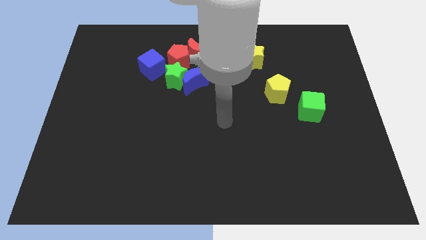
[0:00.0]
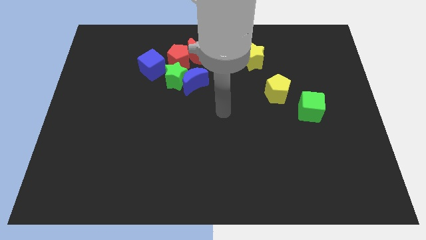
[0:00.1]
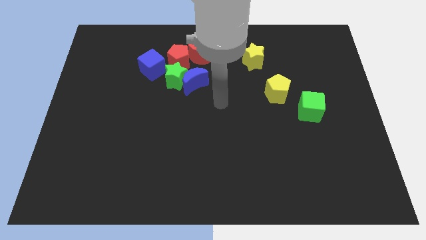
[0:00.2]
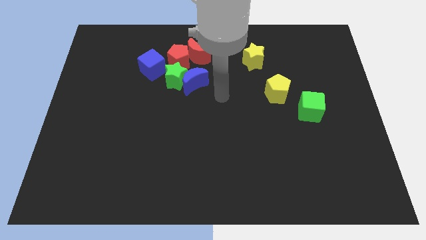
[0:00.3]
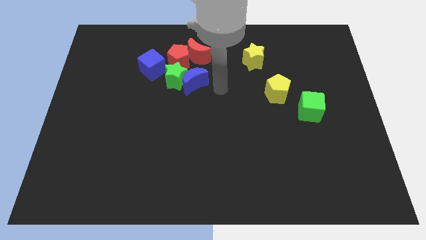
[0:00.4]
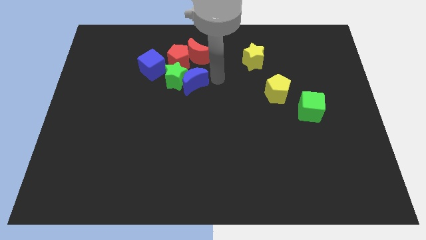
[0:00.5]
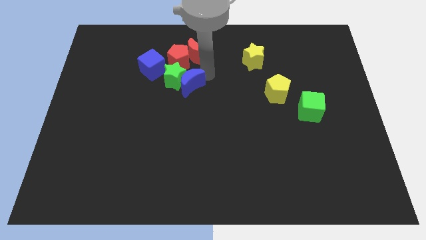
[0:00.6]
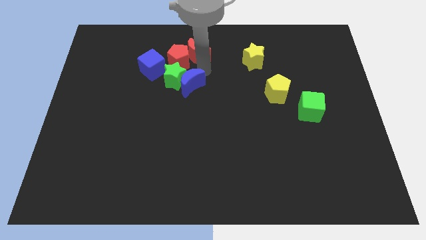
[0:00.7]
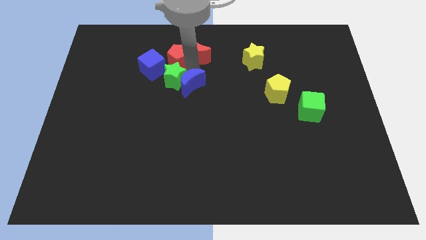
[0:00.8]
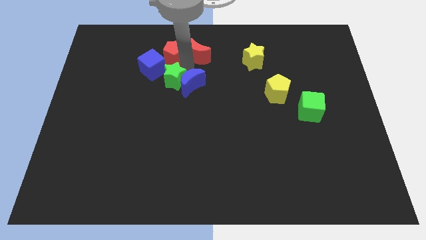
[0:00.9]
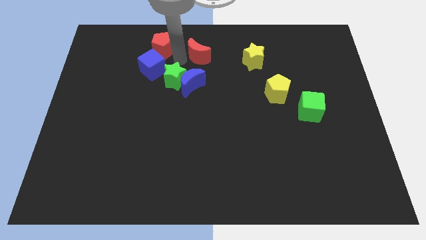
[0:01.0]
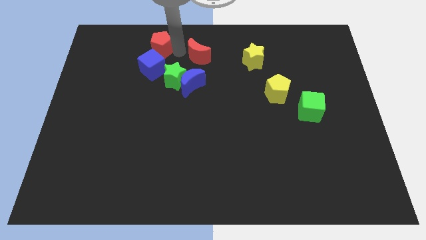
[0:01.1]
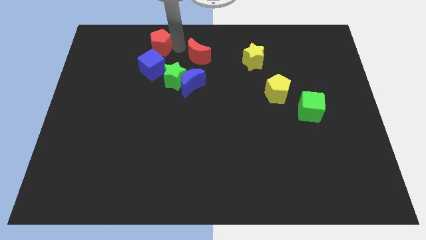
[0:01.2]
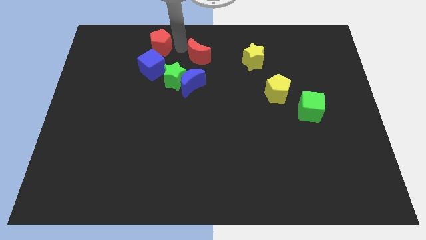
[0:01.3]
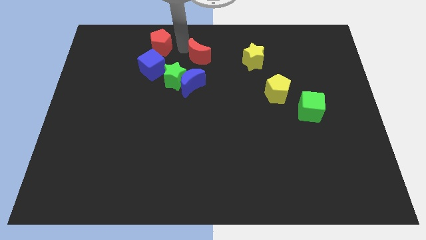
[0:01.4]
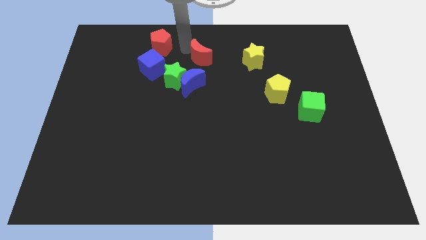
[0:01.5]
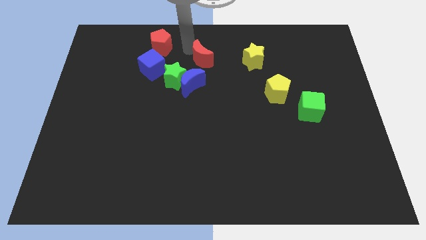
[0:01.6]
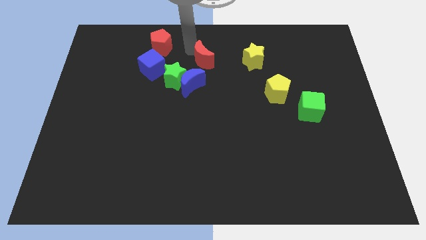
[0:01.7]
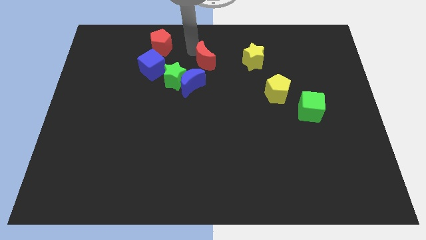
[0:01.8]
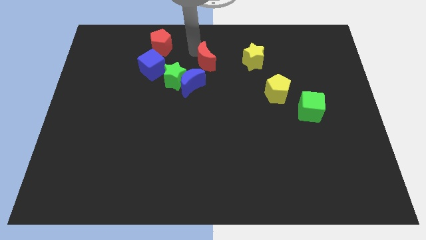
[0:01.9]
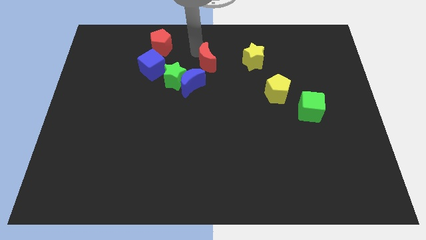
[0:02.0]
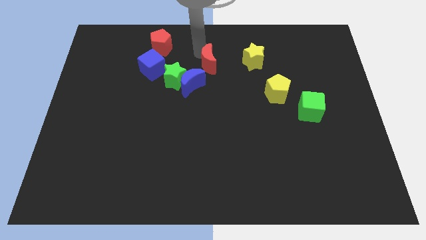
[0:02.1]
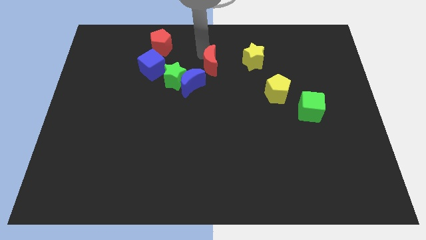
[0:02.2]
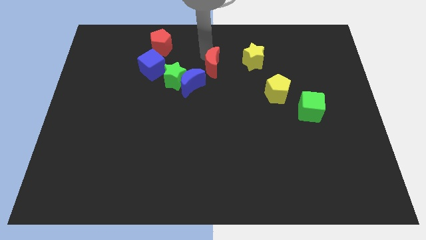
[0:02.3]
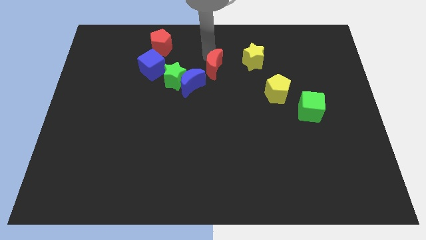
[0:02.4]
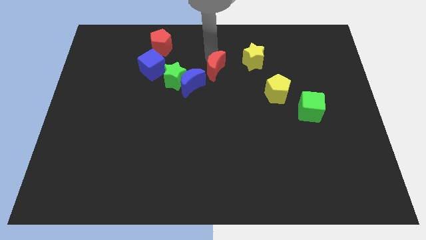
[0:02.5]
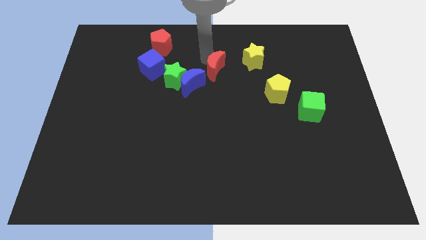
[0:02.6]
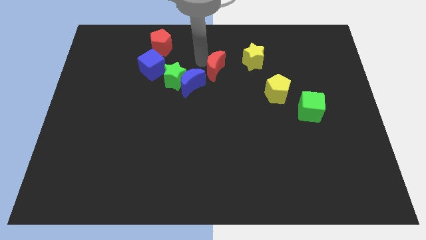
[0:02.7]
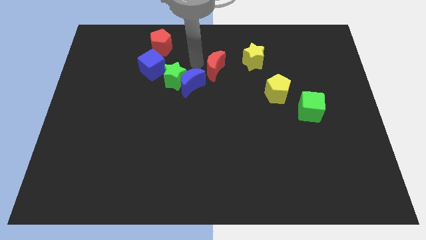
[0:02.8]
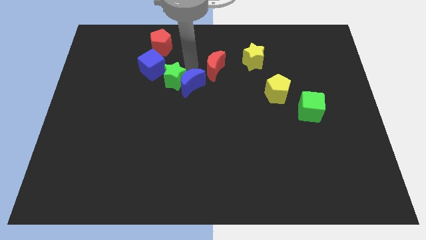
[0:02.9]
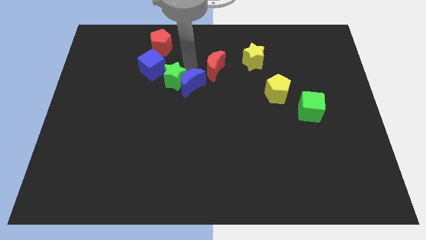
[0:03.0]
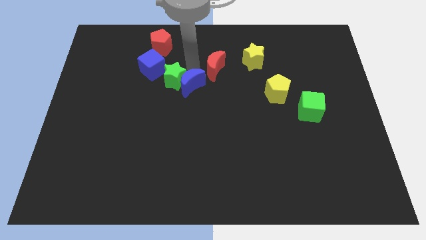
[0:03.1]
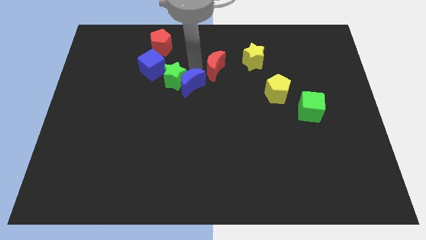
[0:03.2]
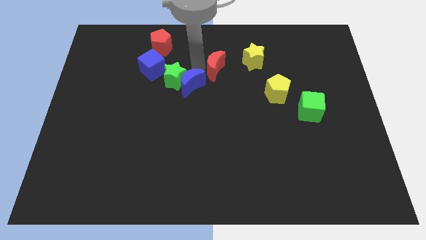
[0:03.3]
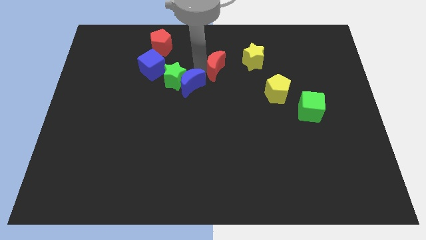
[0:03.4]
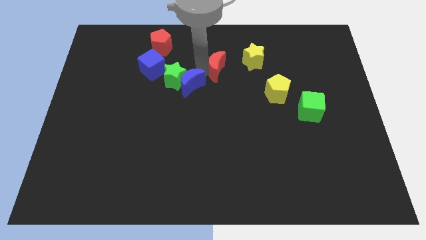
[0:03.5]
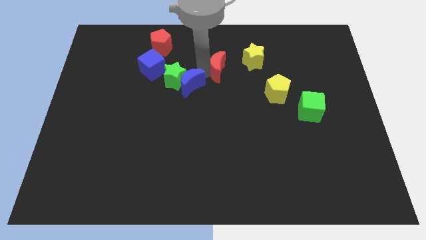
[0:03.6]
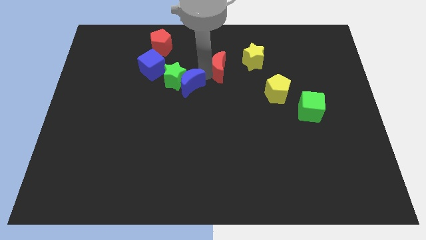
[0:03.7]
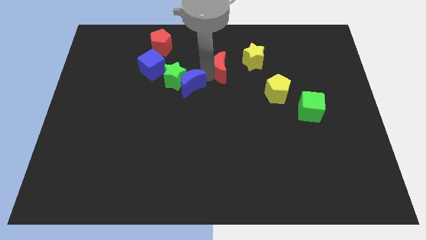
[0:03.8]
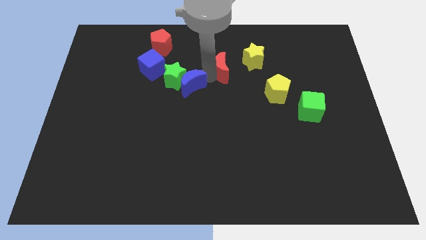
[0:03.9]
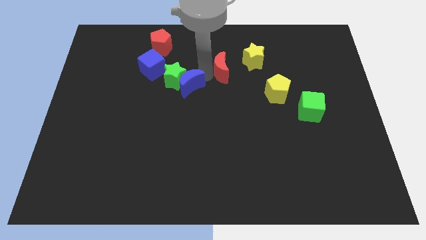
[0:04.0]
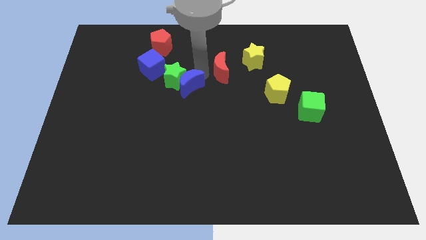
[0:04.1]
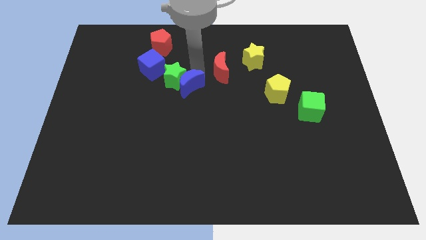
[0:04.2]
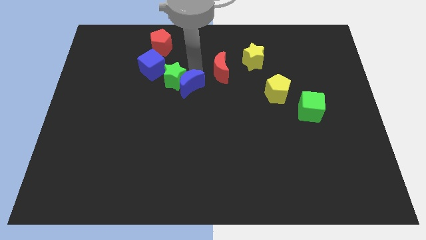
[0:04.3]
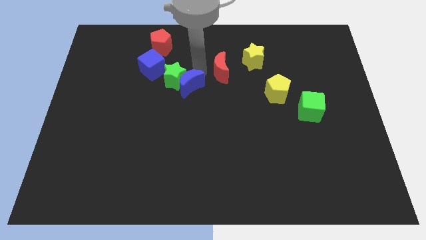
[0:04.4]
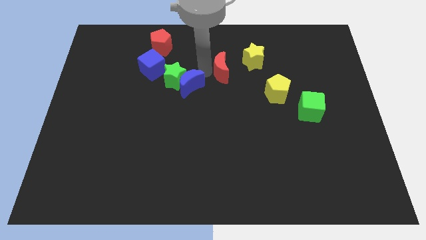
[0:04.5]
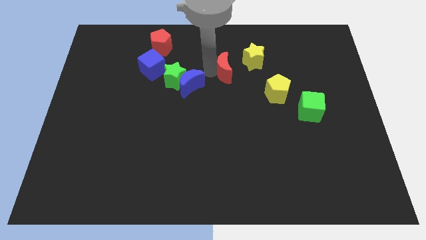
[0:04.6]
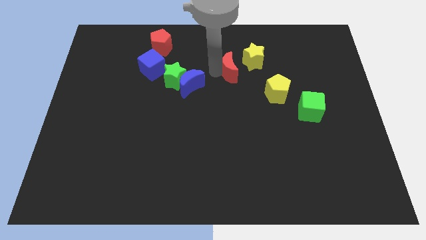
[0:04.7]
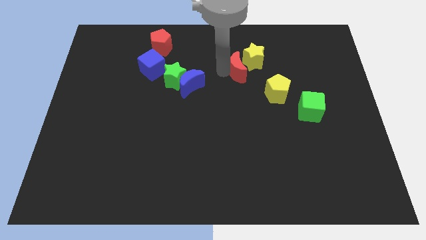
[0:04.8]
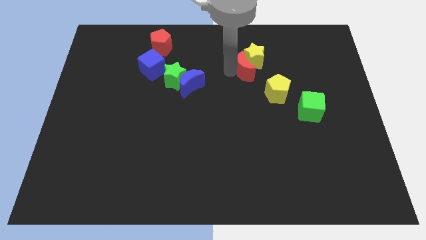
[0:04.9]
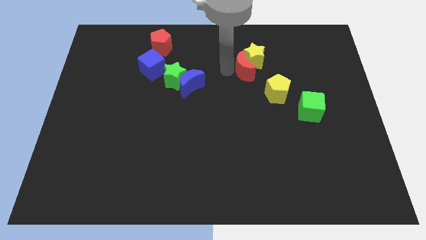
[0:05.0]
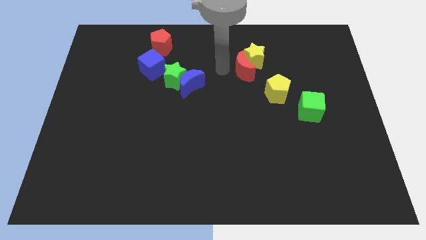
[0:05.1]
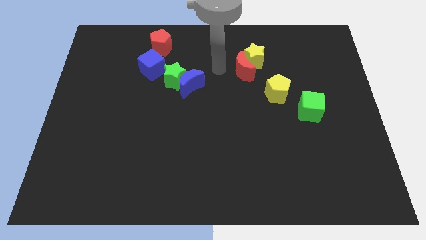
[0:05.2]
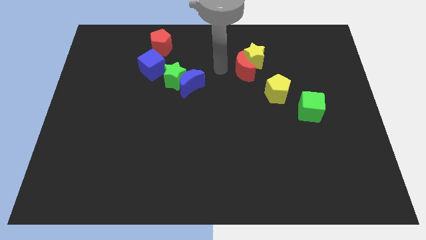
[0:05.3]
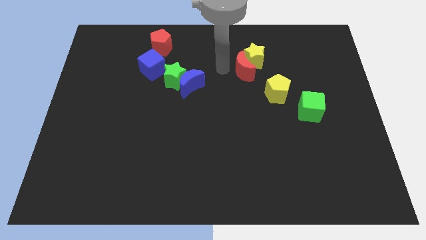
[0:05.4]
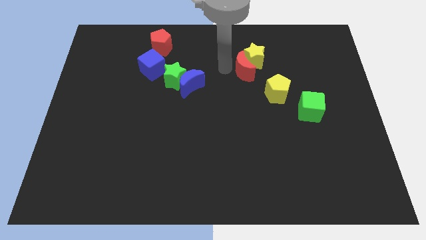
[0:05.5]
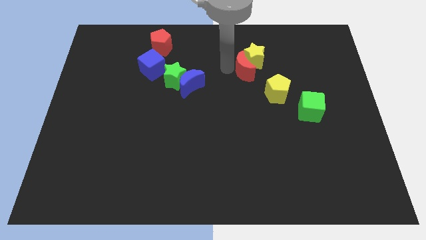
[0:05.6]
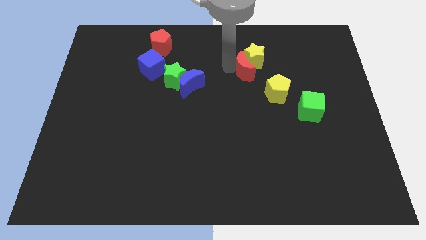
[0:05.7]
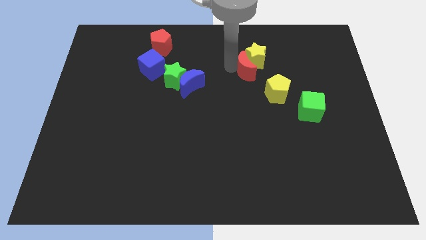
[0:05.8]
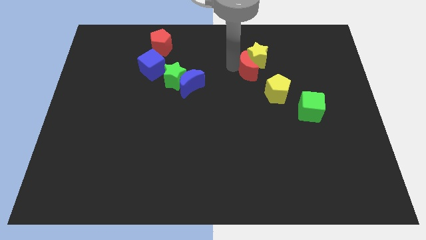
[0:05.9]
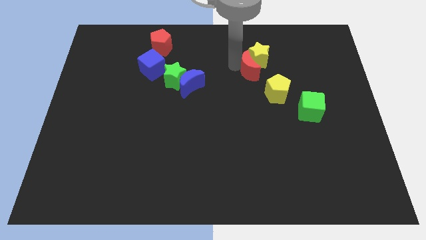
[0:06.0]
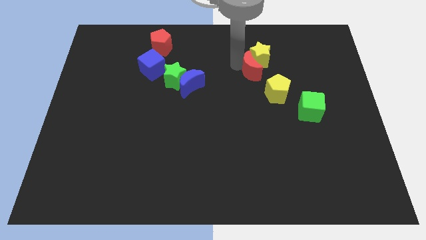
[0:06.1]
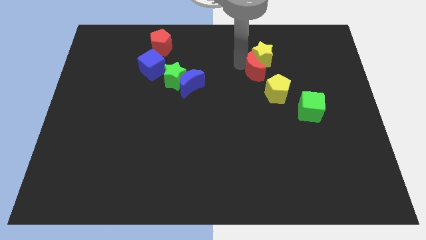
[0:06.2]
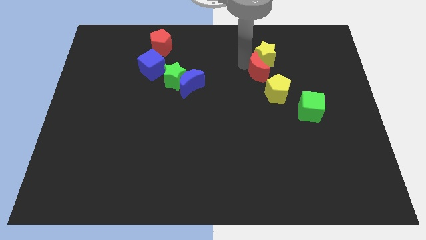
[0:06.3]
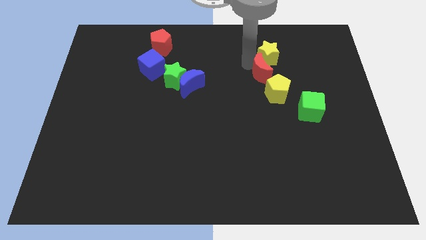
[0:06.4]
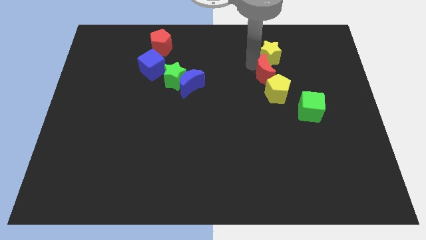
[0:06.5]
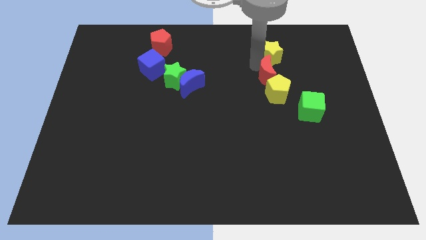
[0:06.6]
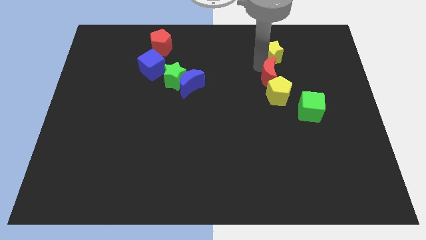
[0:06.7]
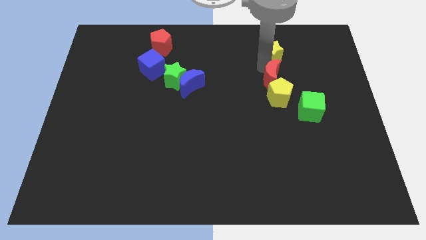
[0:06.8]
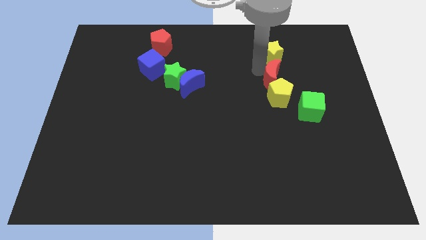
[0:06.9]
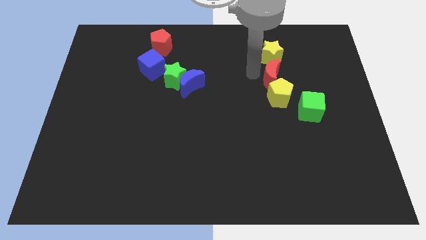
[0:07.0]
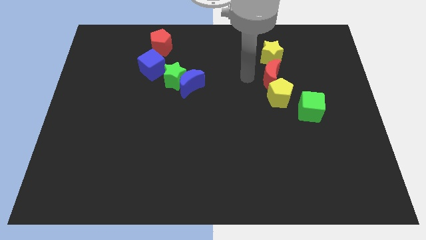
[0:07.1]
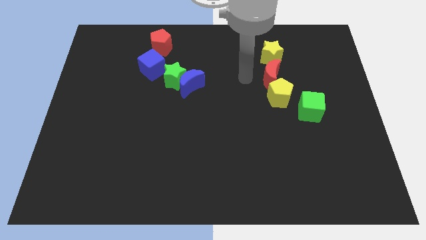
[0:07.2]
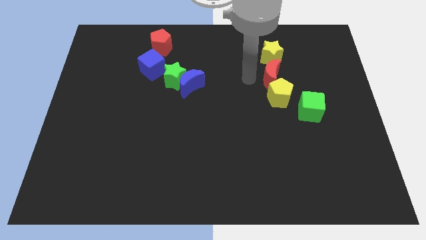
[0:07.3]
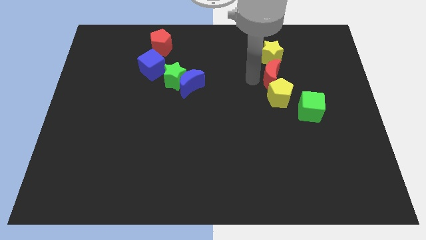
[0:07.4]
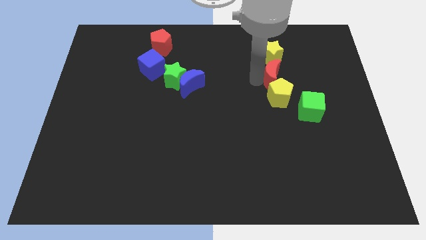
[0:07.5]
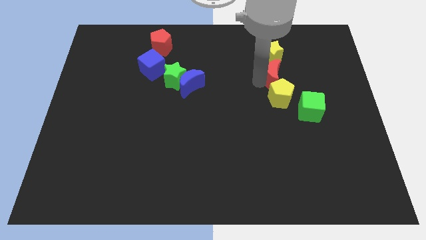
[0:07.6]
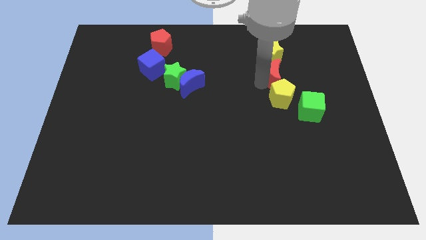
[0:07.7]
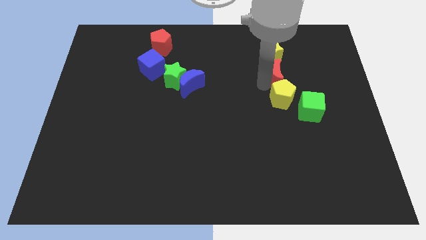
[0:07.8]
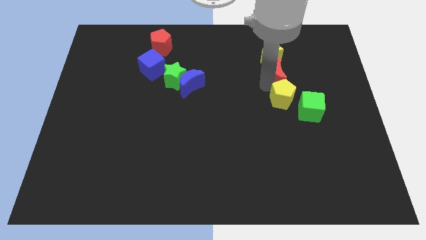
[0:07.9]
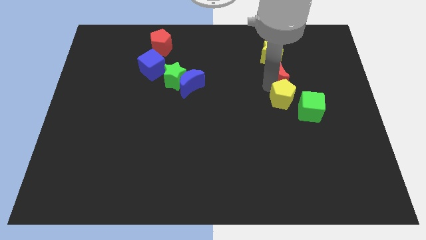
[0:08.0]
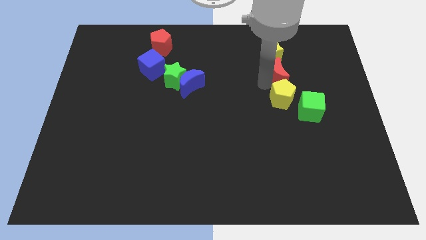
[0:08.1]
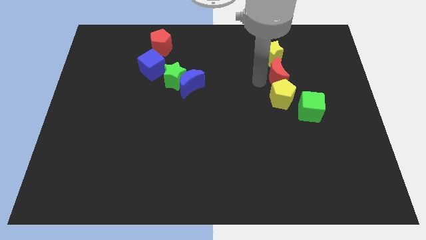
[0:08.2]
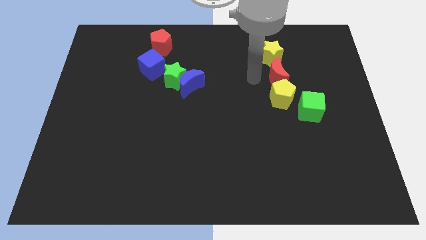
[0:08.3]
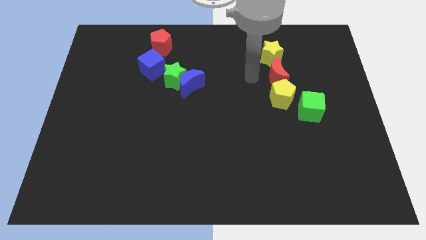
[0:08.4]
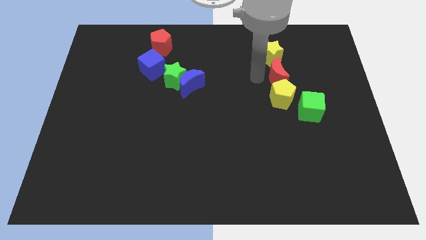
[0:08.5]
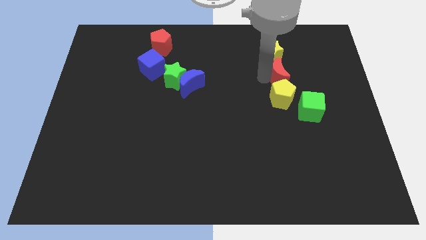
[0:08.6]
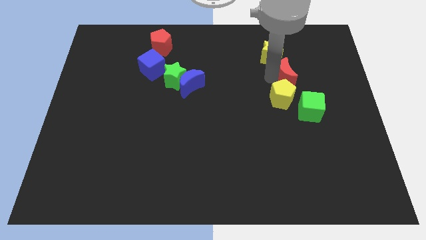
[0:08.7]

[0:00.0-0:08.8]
slide the red moon above the green cube
